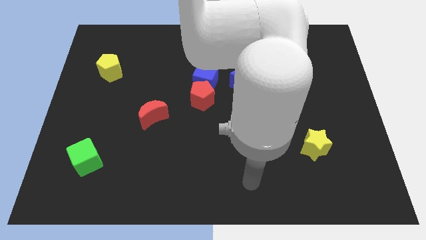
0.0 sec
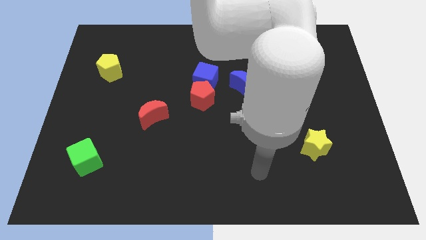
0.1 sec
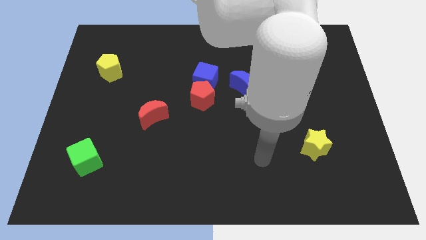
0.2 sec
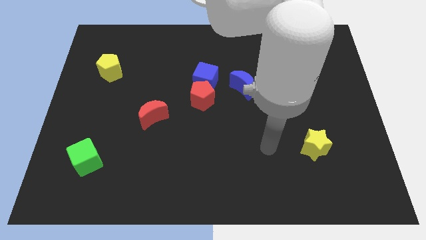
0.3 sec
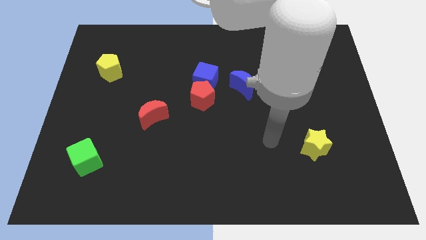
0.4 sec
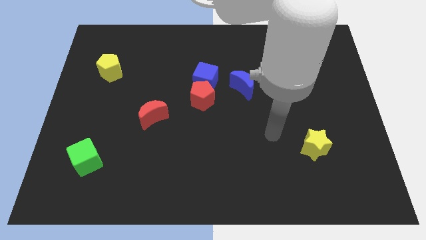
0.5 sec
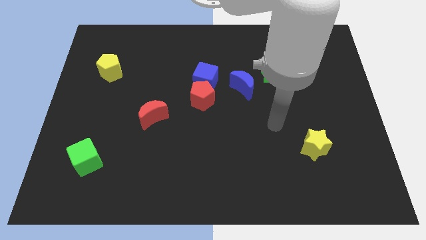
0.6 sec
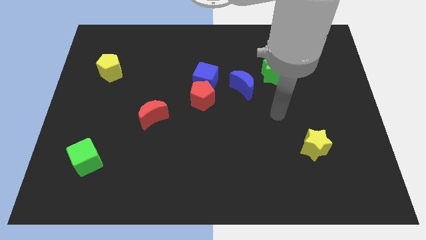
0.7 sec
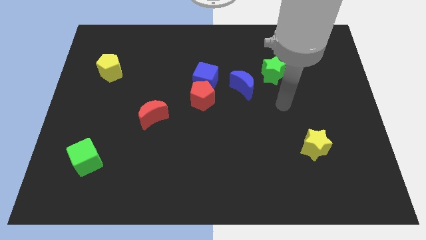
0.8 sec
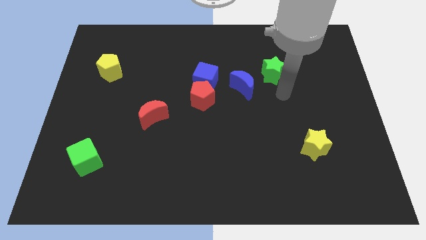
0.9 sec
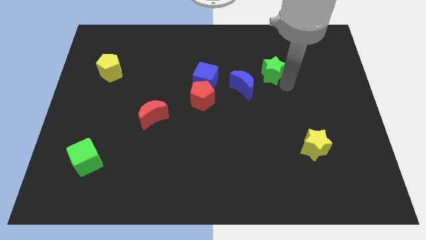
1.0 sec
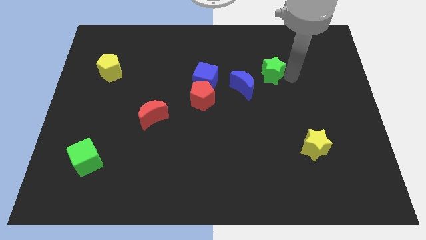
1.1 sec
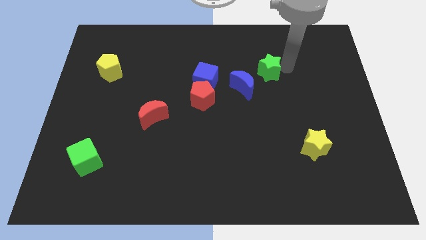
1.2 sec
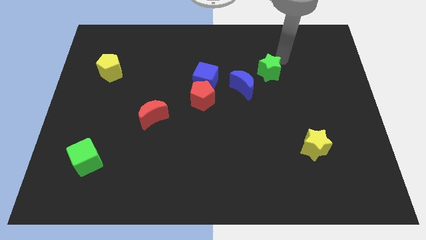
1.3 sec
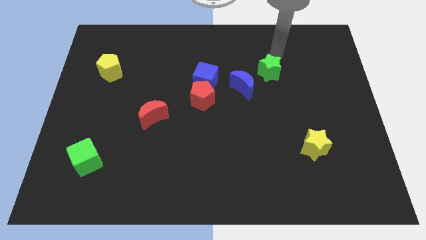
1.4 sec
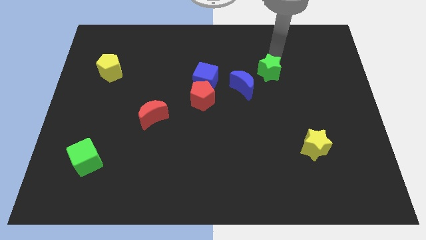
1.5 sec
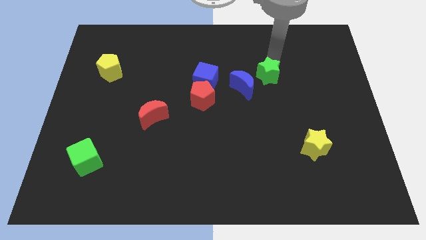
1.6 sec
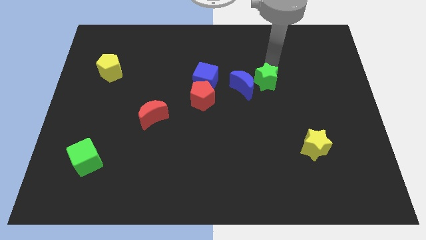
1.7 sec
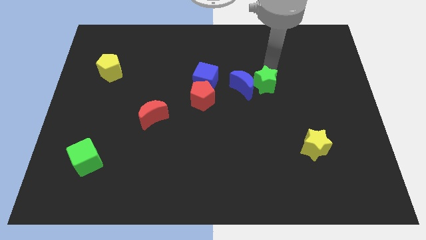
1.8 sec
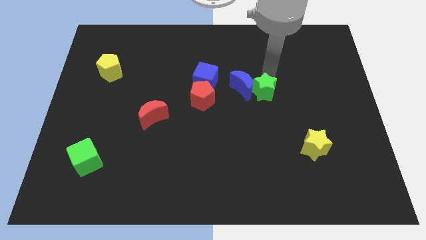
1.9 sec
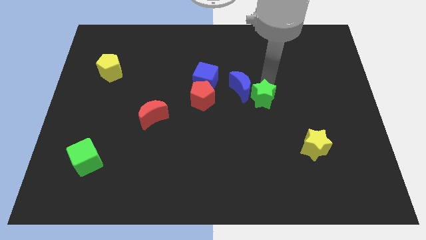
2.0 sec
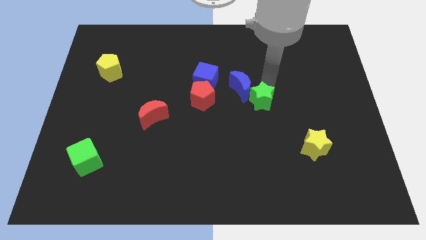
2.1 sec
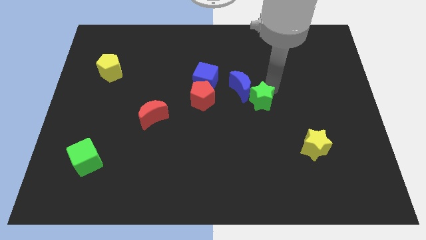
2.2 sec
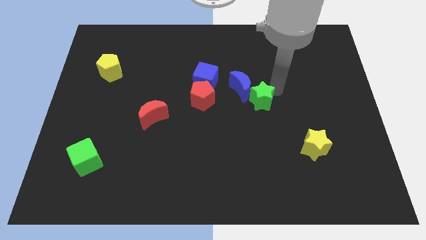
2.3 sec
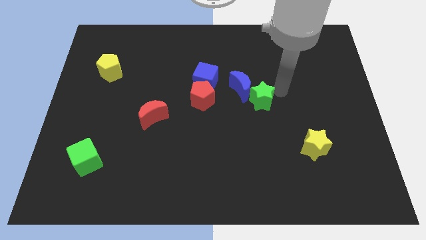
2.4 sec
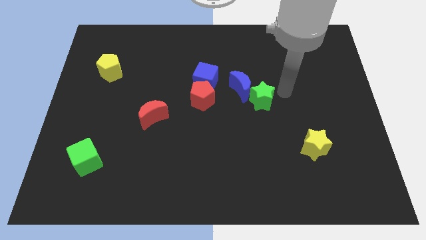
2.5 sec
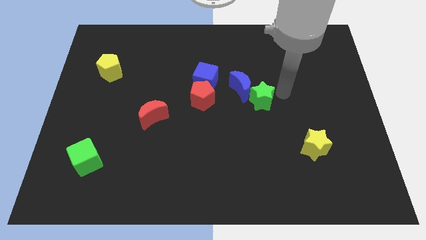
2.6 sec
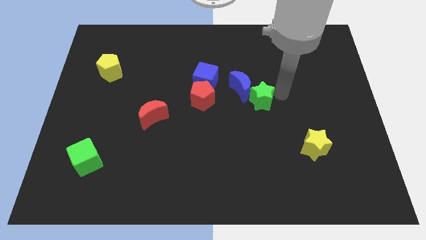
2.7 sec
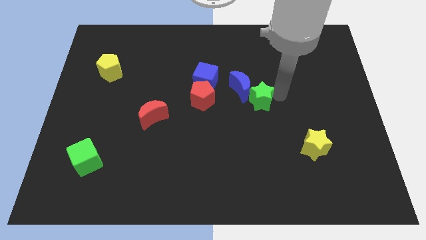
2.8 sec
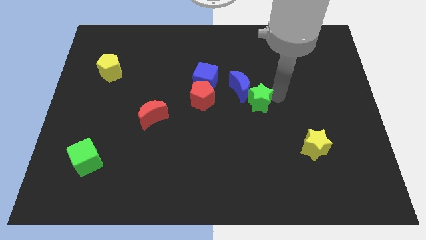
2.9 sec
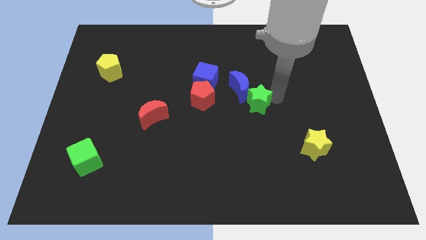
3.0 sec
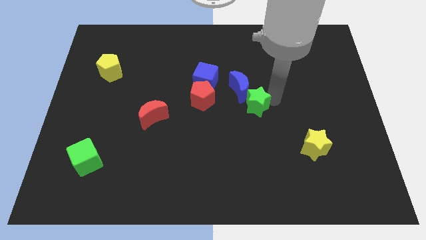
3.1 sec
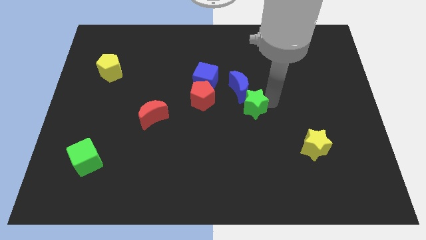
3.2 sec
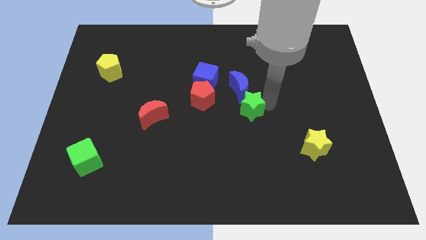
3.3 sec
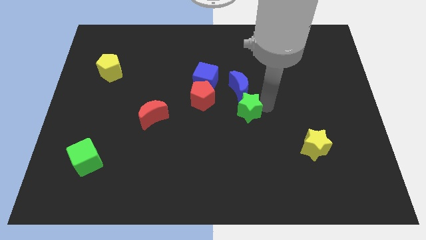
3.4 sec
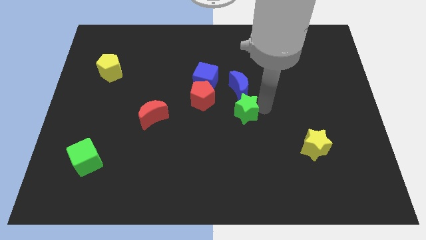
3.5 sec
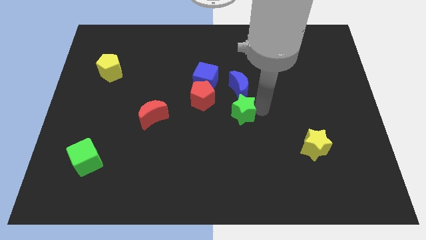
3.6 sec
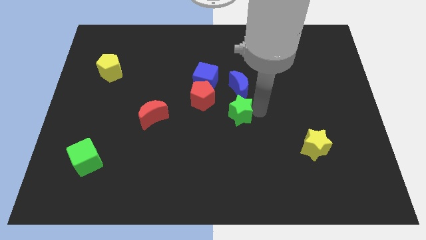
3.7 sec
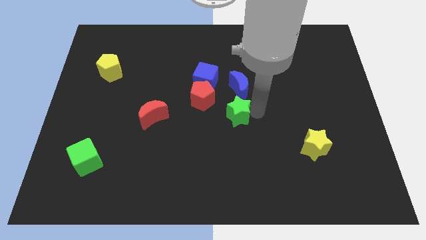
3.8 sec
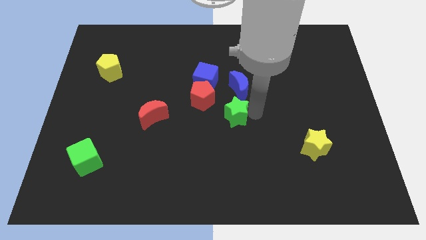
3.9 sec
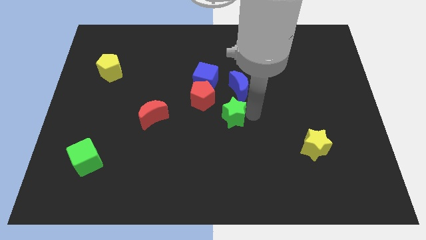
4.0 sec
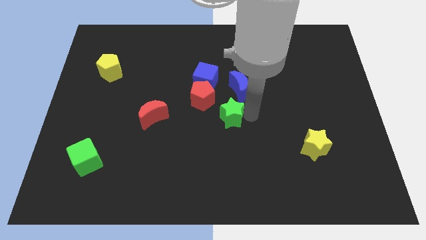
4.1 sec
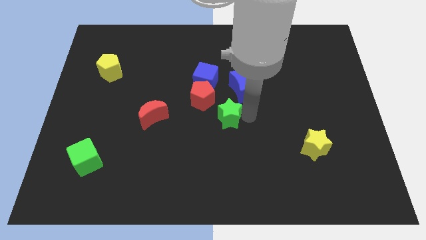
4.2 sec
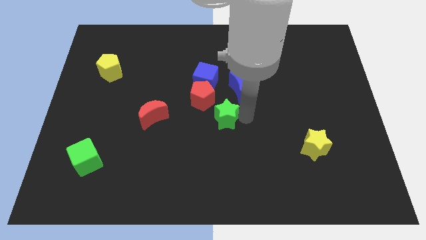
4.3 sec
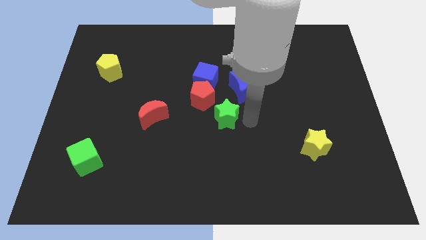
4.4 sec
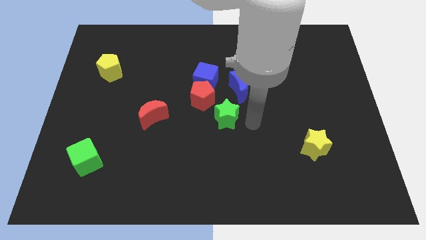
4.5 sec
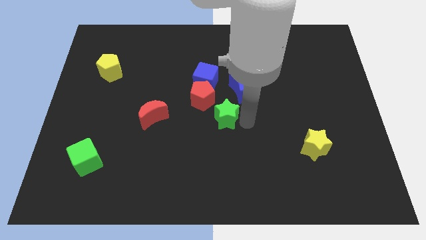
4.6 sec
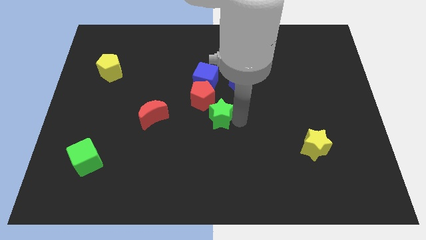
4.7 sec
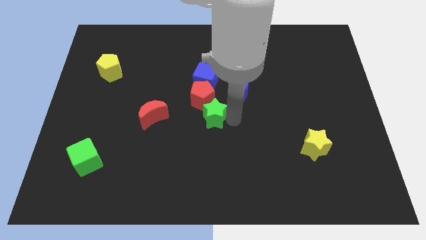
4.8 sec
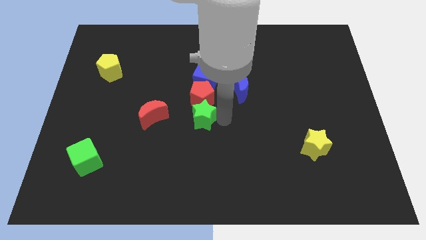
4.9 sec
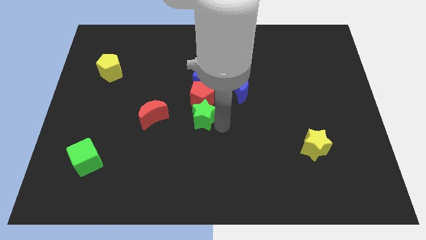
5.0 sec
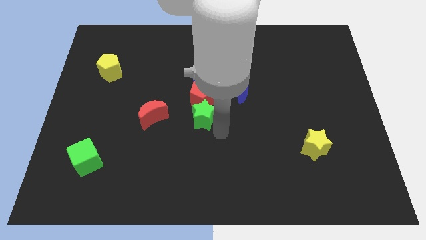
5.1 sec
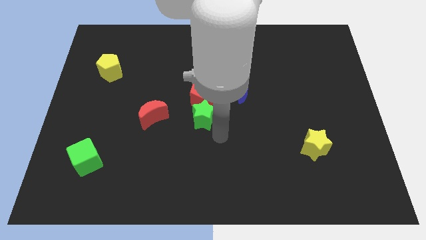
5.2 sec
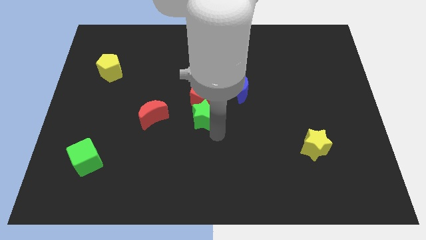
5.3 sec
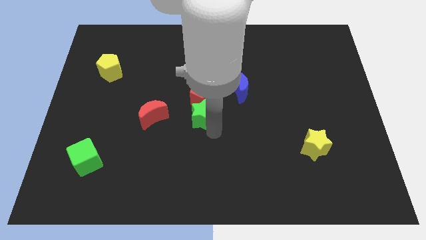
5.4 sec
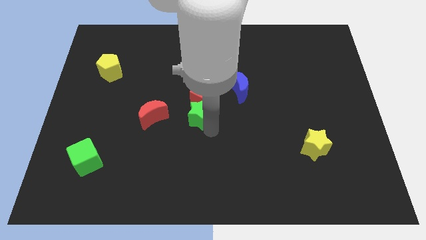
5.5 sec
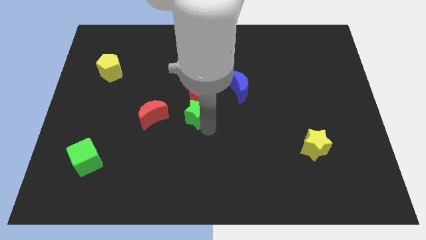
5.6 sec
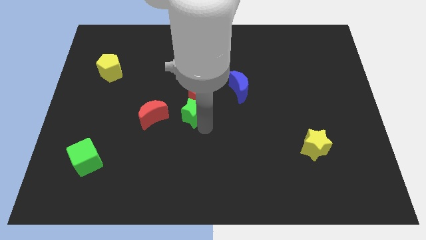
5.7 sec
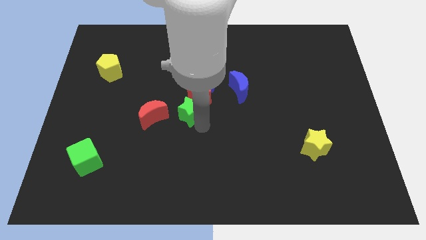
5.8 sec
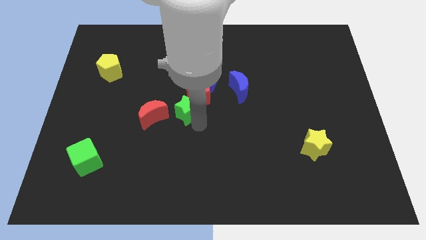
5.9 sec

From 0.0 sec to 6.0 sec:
slide the green star to the bottom left of the blue cube

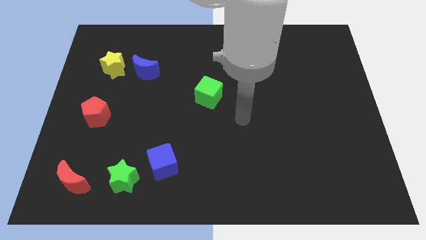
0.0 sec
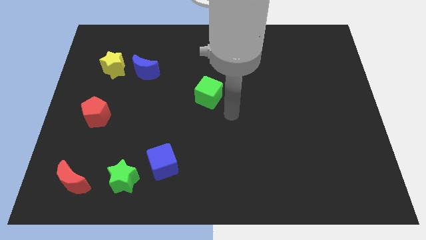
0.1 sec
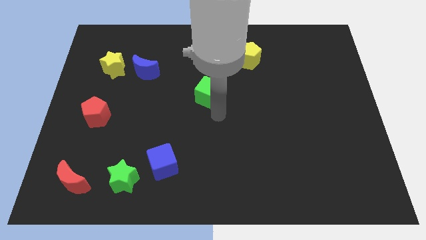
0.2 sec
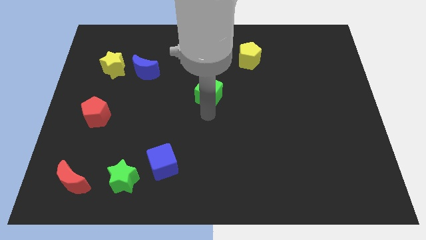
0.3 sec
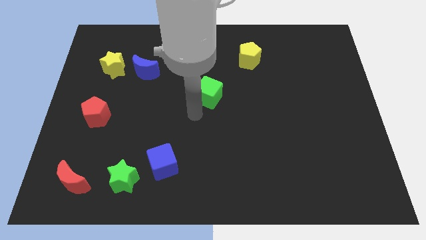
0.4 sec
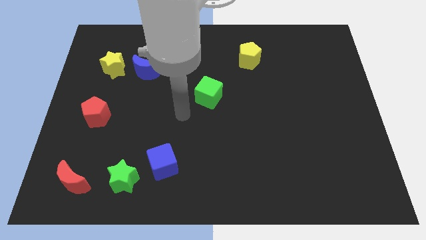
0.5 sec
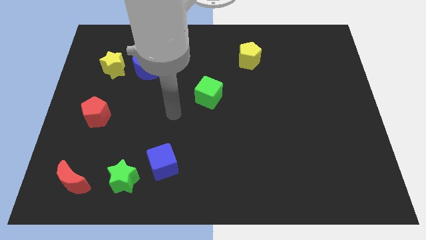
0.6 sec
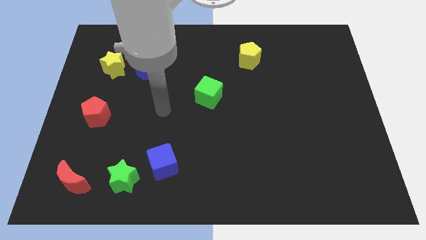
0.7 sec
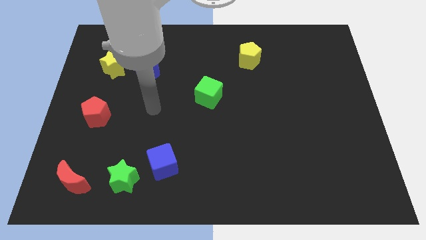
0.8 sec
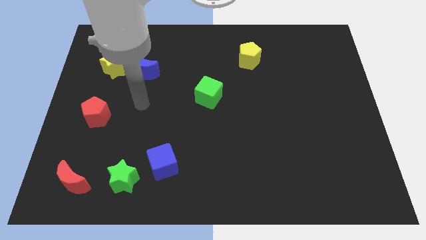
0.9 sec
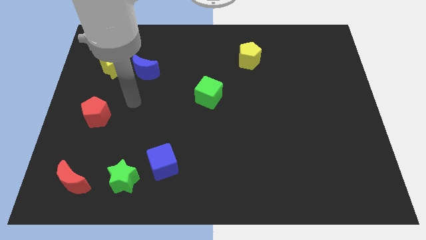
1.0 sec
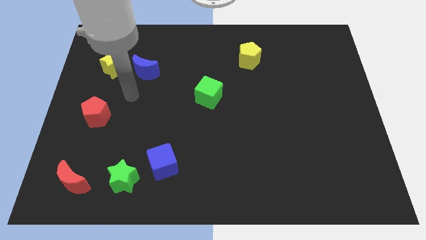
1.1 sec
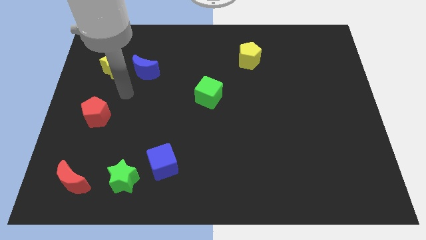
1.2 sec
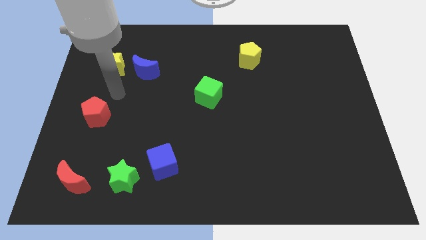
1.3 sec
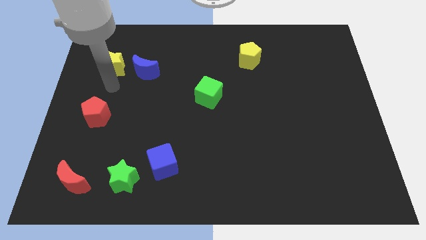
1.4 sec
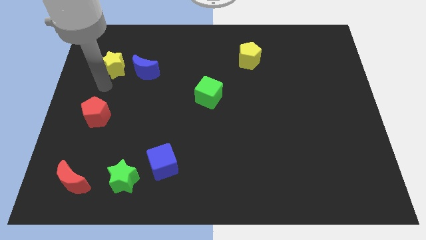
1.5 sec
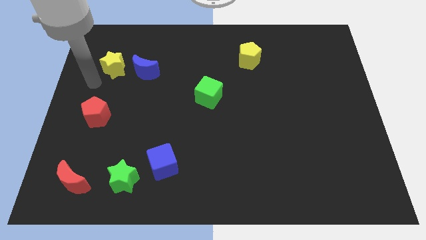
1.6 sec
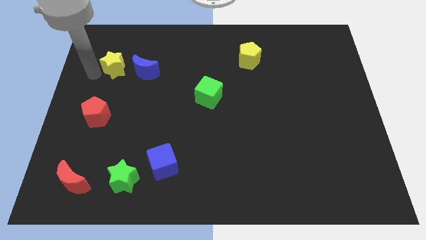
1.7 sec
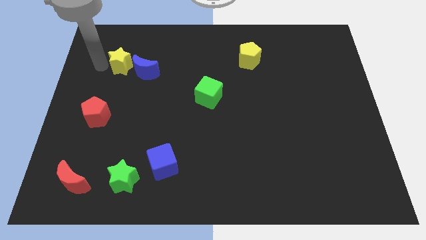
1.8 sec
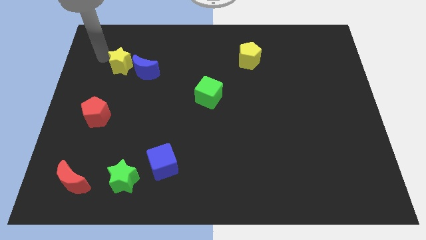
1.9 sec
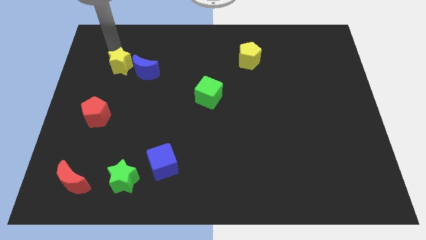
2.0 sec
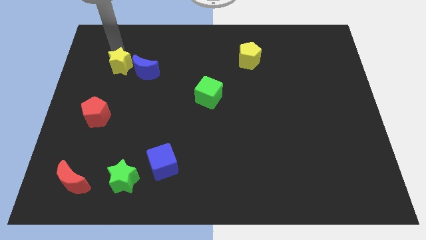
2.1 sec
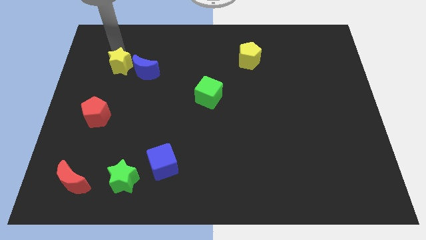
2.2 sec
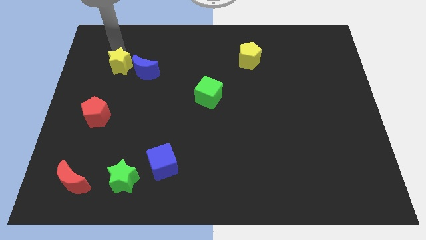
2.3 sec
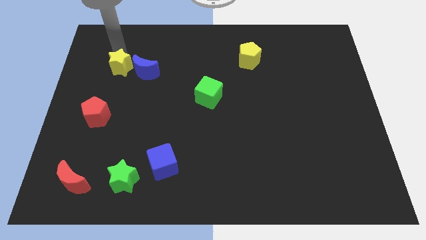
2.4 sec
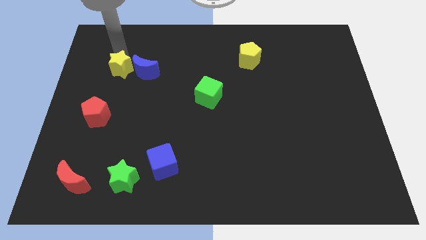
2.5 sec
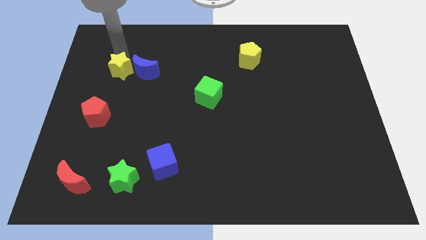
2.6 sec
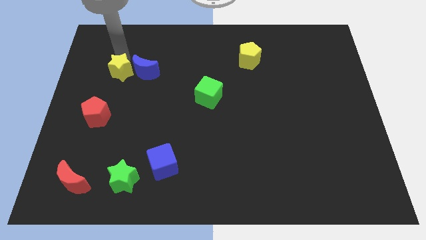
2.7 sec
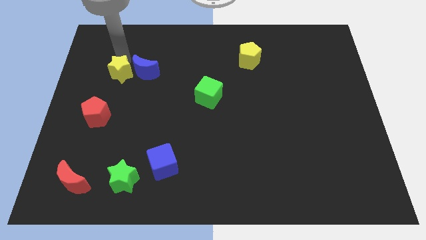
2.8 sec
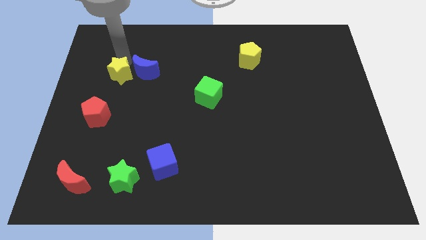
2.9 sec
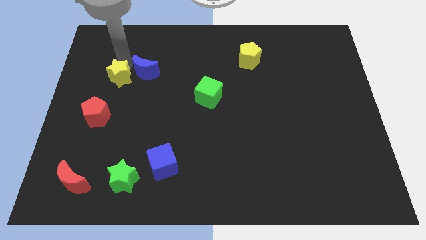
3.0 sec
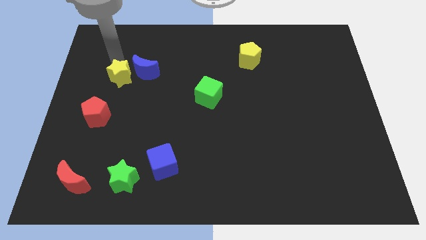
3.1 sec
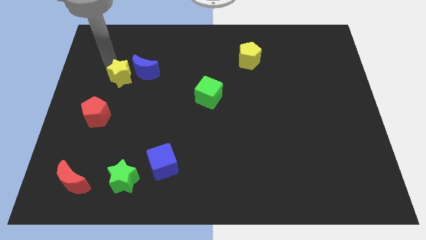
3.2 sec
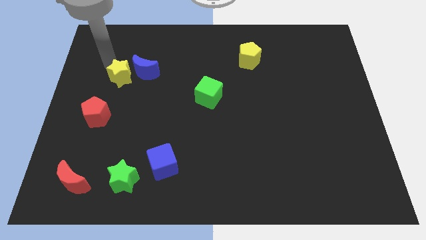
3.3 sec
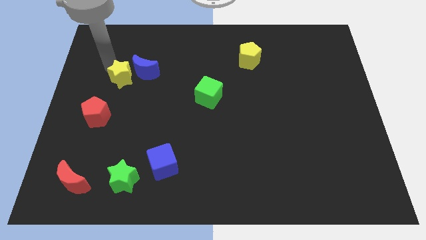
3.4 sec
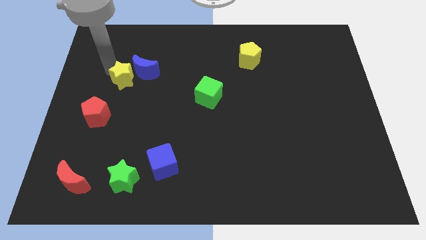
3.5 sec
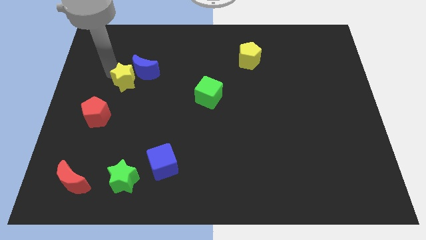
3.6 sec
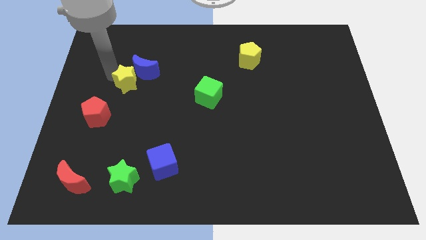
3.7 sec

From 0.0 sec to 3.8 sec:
slide the yellow star to the bottom of the blue moon
